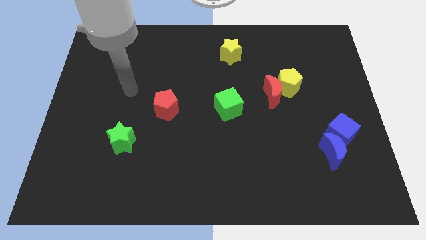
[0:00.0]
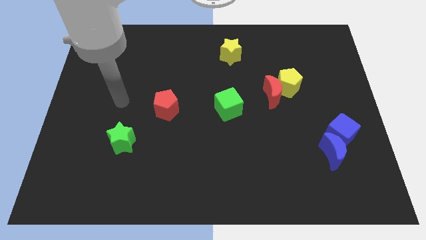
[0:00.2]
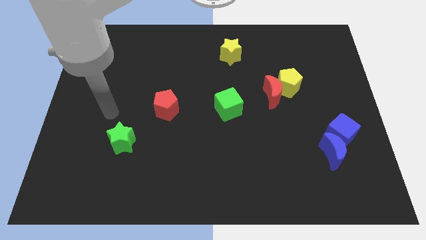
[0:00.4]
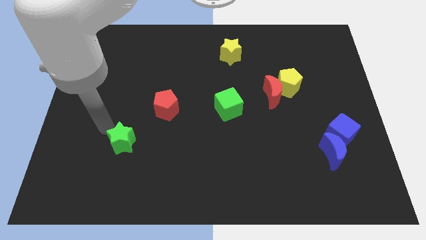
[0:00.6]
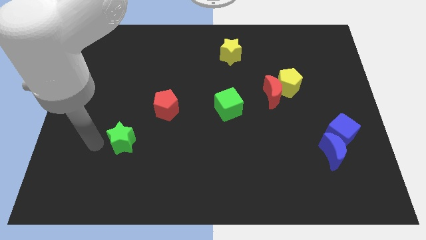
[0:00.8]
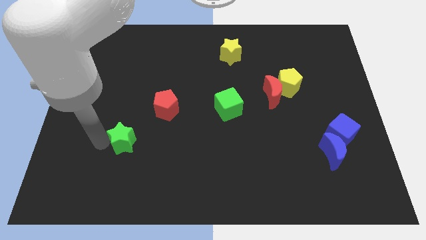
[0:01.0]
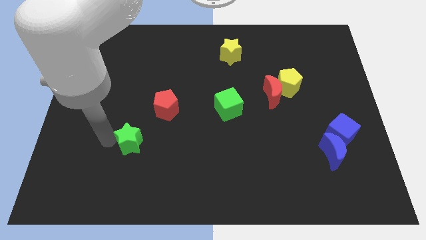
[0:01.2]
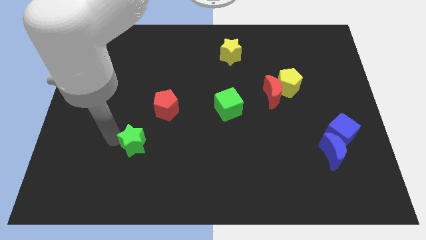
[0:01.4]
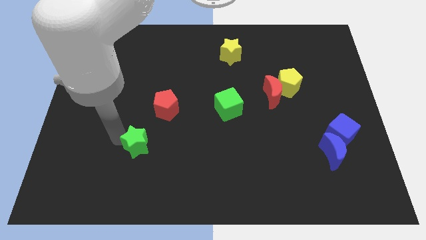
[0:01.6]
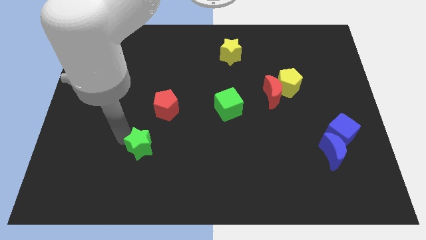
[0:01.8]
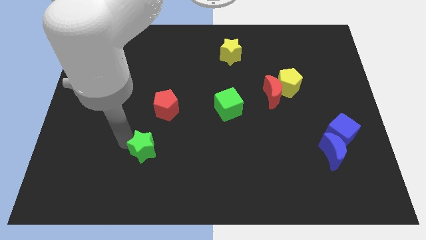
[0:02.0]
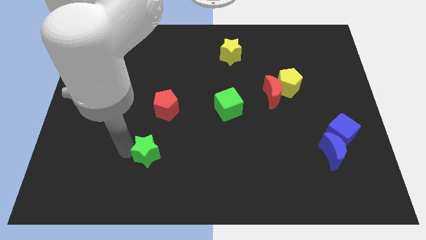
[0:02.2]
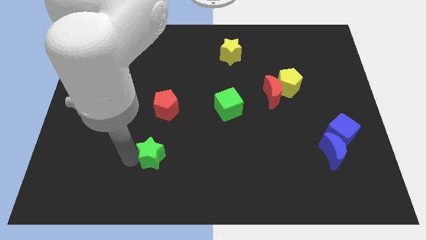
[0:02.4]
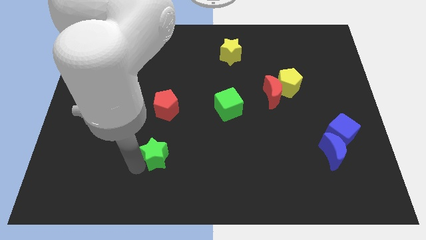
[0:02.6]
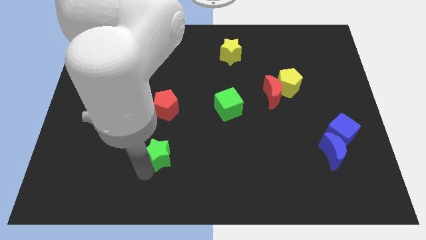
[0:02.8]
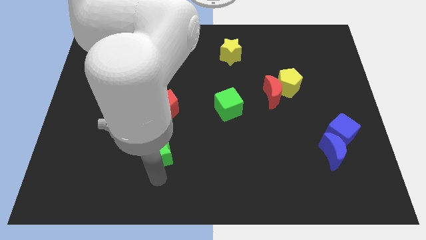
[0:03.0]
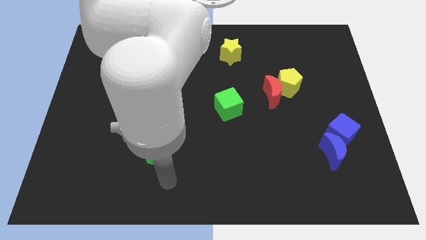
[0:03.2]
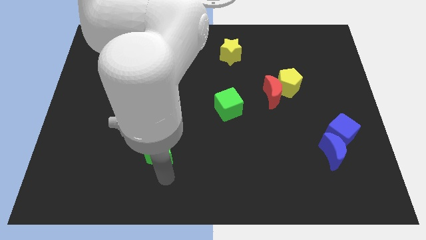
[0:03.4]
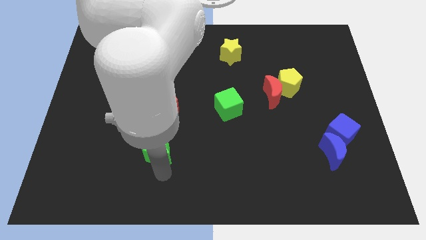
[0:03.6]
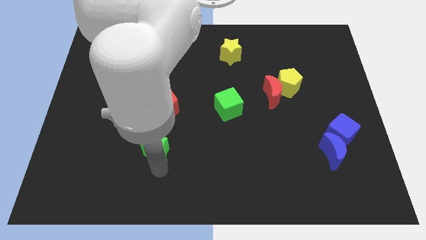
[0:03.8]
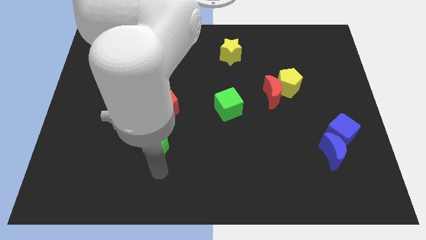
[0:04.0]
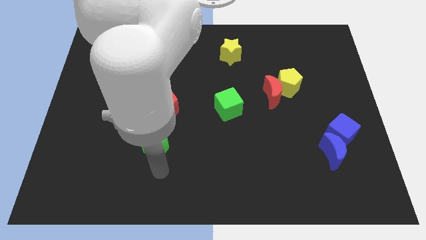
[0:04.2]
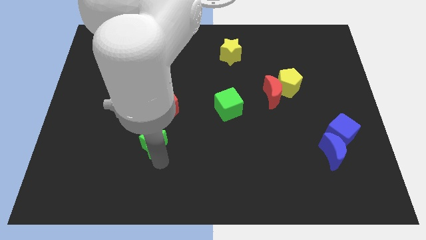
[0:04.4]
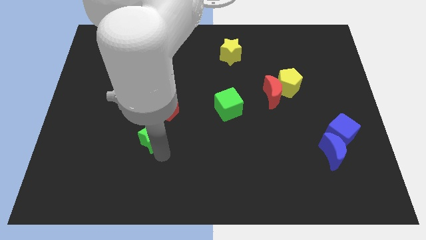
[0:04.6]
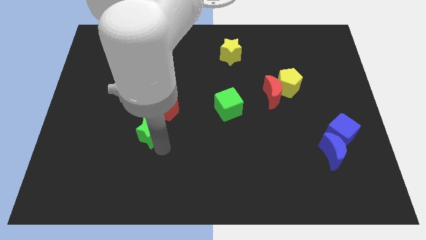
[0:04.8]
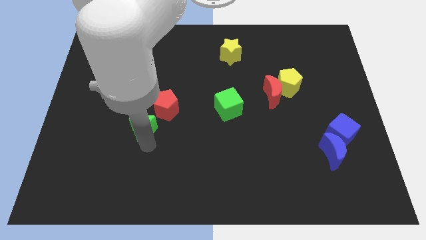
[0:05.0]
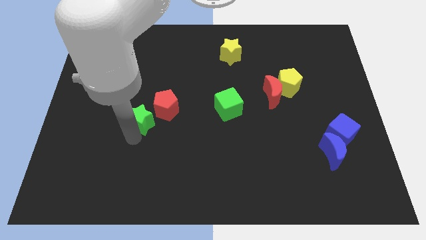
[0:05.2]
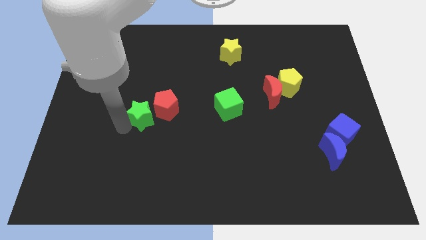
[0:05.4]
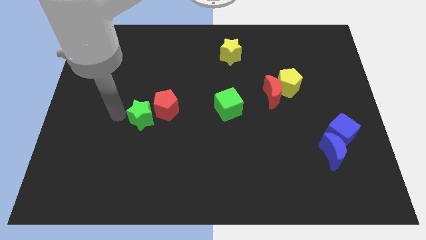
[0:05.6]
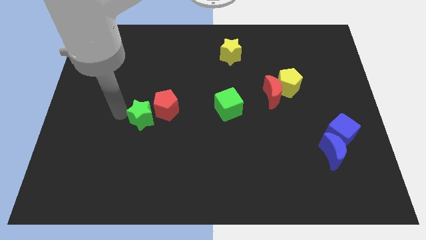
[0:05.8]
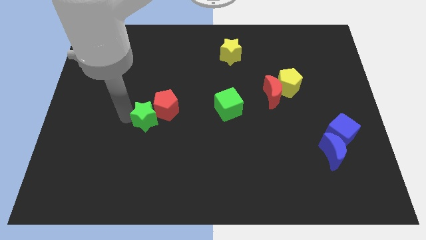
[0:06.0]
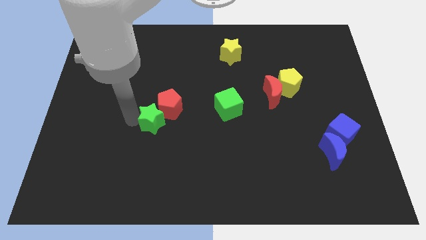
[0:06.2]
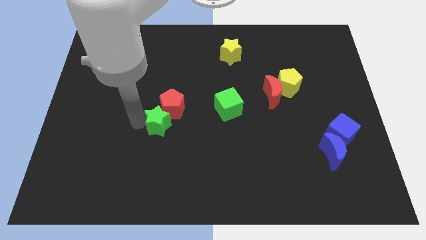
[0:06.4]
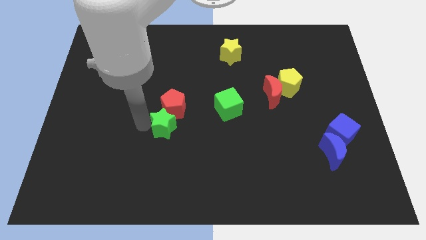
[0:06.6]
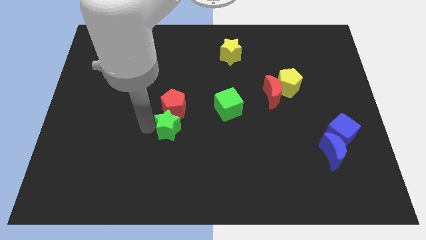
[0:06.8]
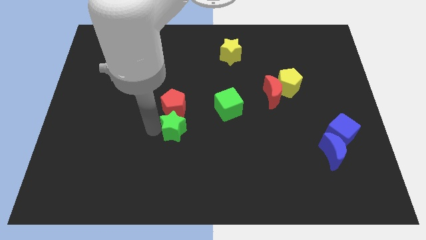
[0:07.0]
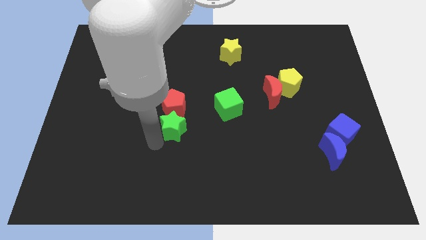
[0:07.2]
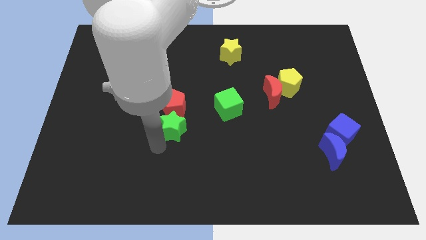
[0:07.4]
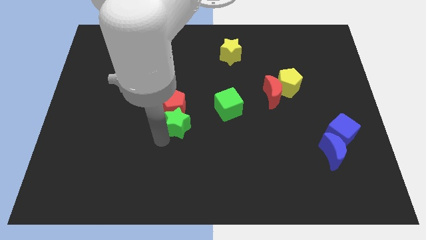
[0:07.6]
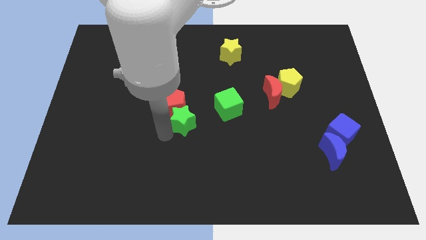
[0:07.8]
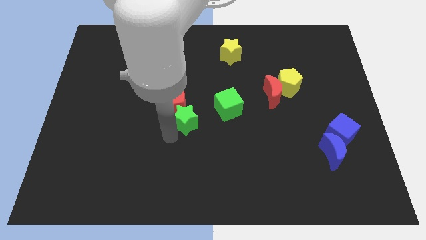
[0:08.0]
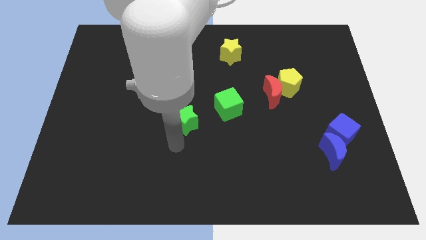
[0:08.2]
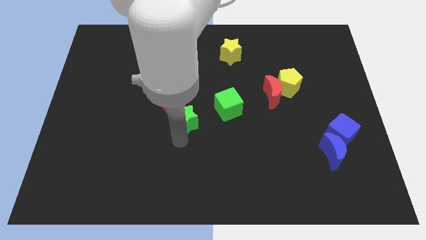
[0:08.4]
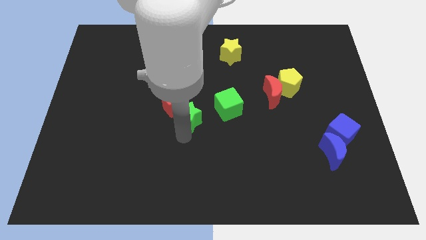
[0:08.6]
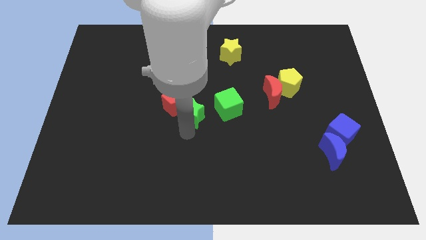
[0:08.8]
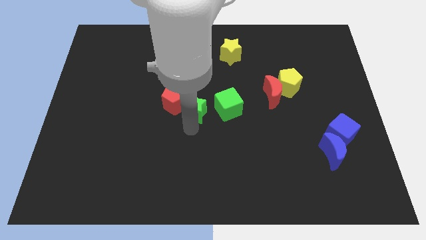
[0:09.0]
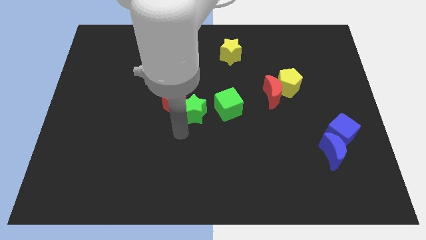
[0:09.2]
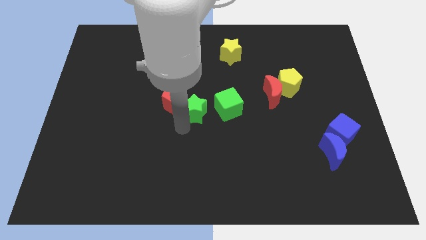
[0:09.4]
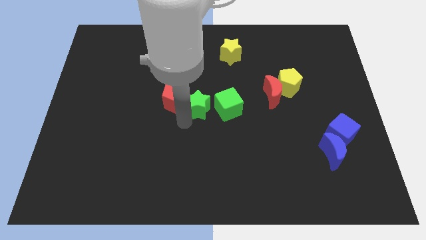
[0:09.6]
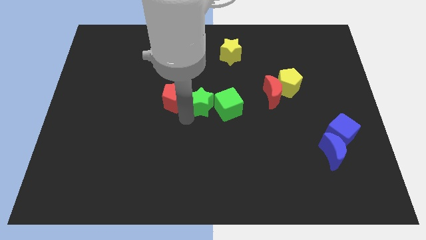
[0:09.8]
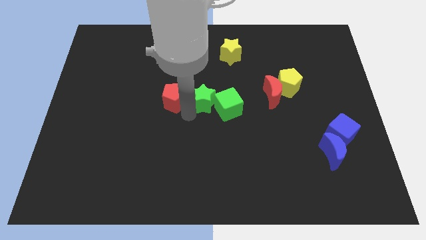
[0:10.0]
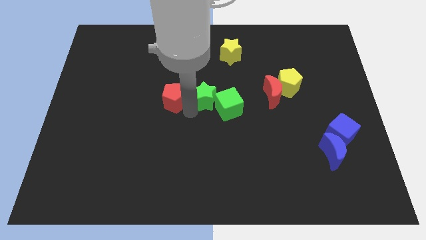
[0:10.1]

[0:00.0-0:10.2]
push the green star diagonally upwards and right

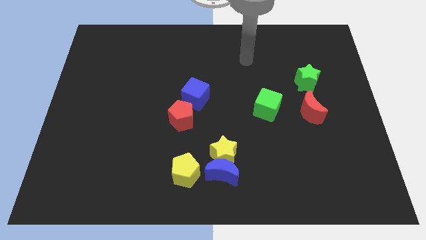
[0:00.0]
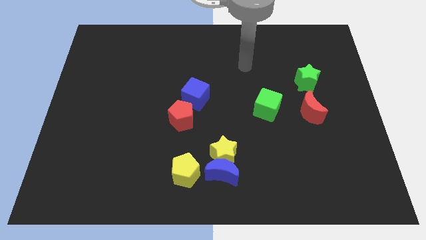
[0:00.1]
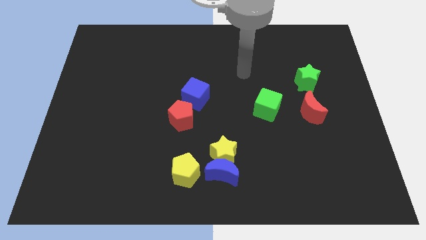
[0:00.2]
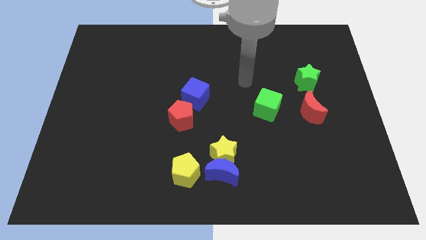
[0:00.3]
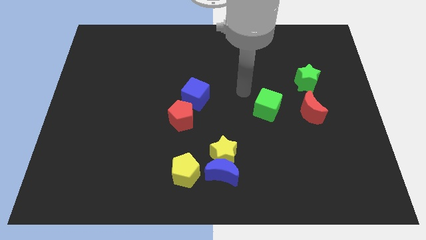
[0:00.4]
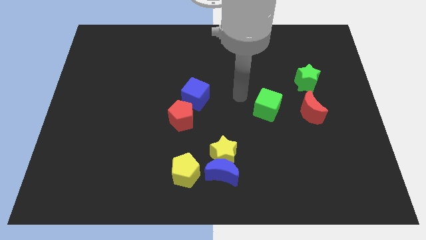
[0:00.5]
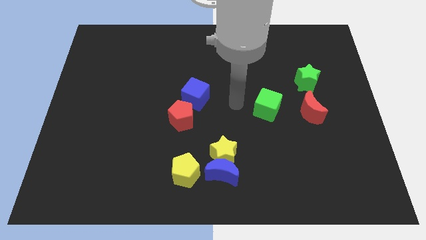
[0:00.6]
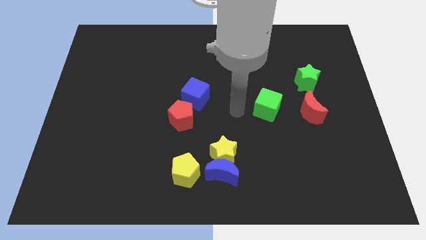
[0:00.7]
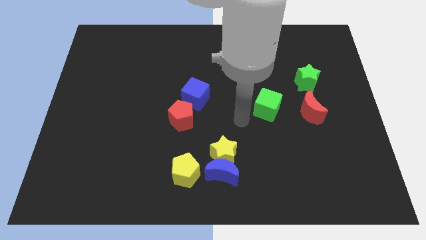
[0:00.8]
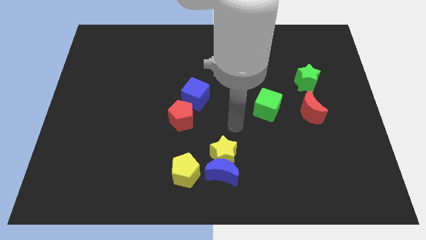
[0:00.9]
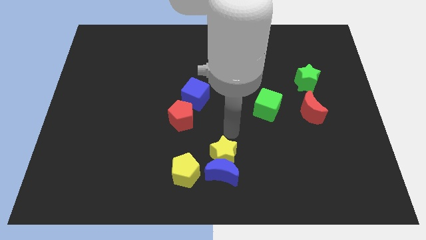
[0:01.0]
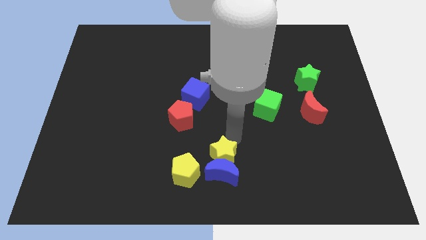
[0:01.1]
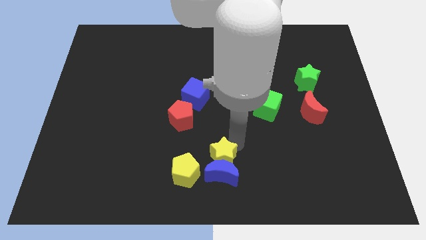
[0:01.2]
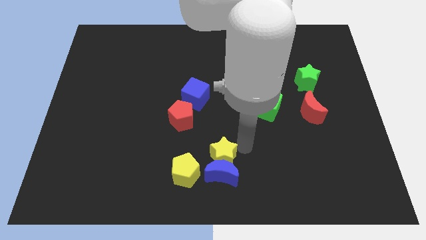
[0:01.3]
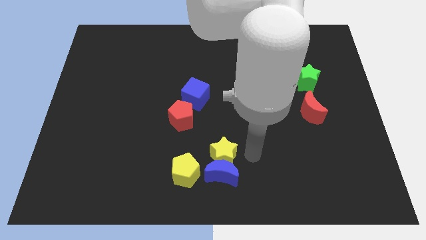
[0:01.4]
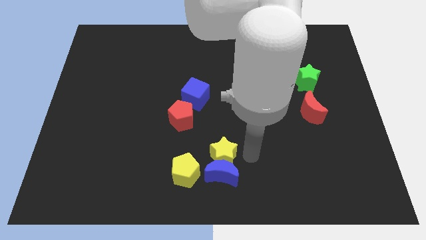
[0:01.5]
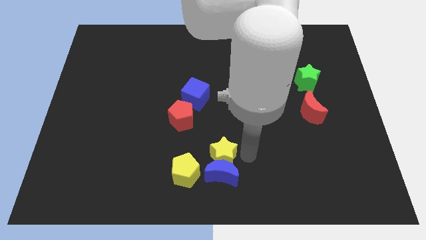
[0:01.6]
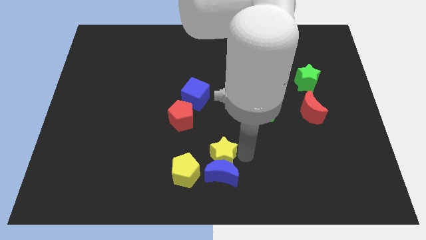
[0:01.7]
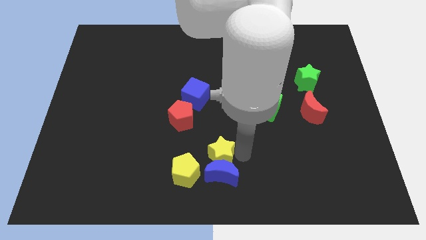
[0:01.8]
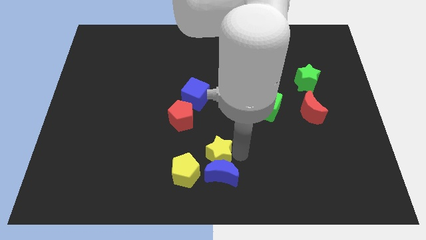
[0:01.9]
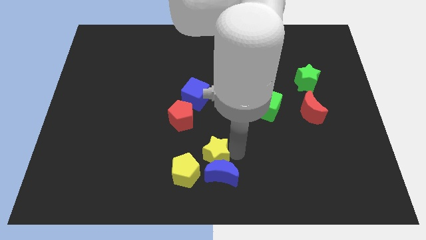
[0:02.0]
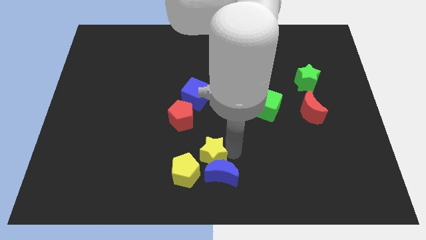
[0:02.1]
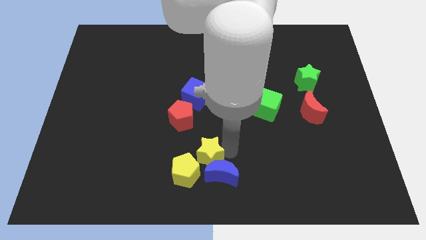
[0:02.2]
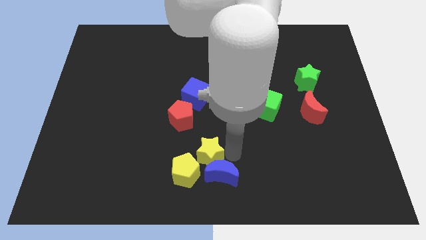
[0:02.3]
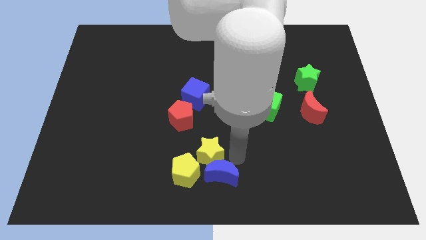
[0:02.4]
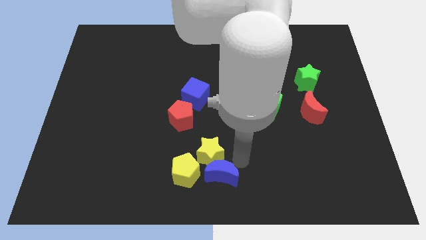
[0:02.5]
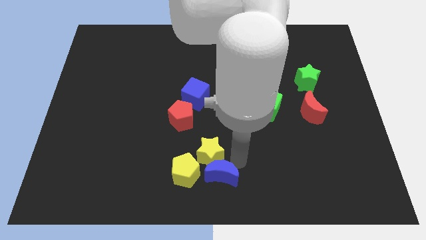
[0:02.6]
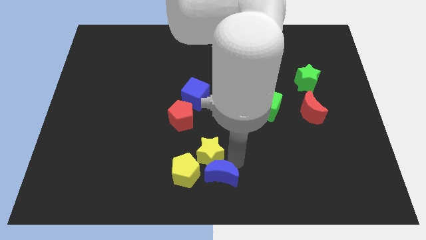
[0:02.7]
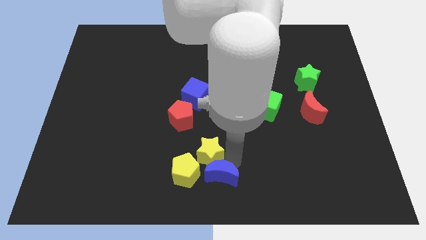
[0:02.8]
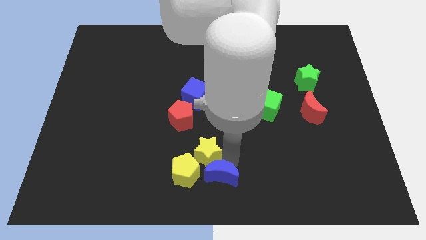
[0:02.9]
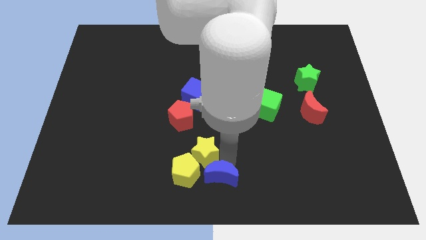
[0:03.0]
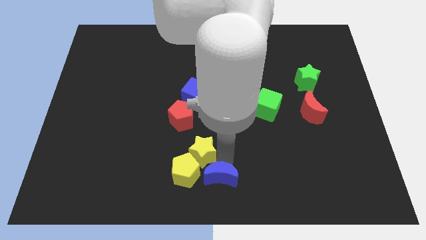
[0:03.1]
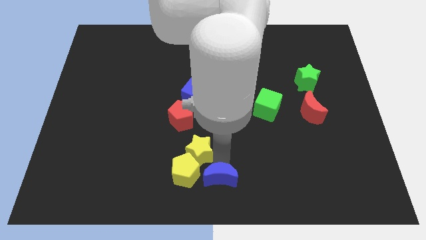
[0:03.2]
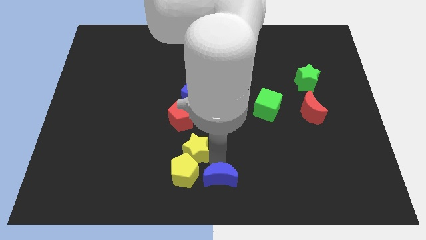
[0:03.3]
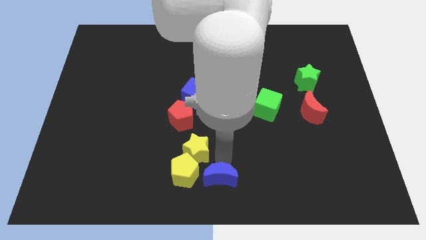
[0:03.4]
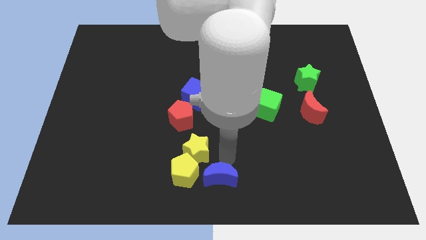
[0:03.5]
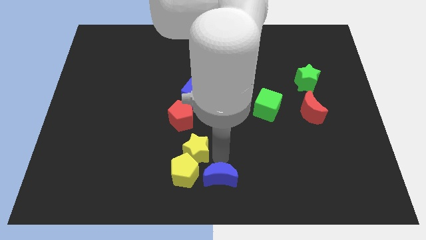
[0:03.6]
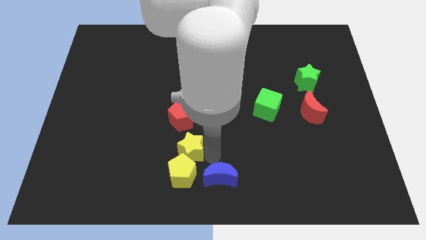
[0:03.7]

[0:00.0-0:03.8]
slightly slide the yellow star left
